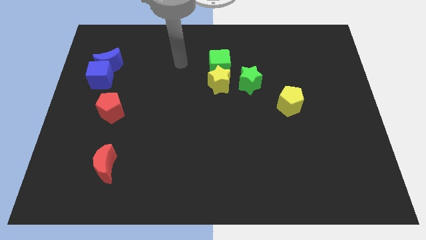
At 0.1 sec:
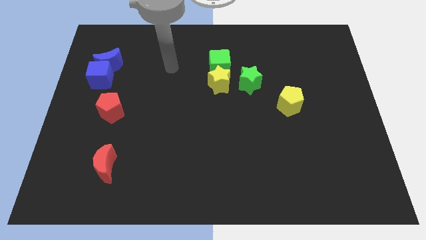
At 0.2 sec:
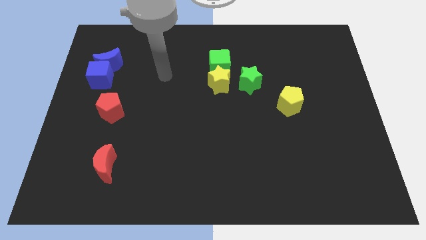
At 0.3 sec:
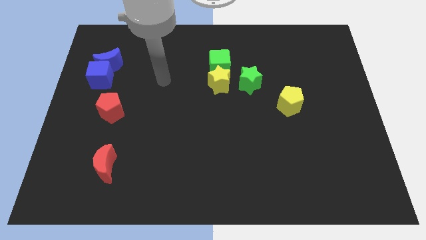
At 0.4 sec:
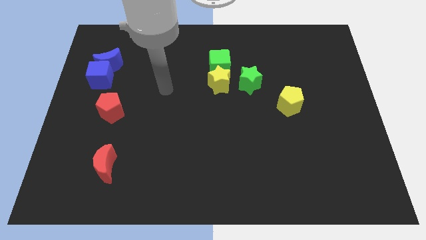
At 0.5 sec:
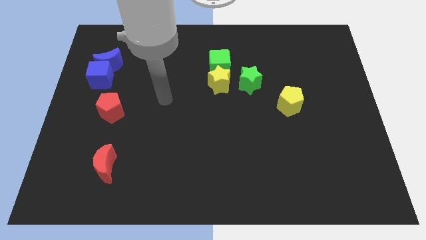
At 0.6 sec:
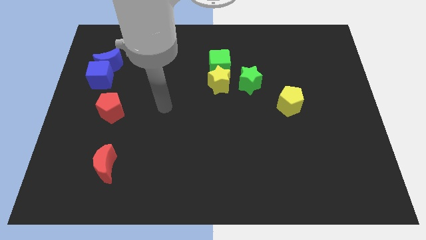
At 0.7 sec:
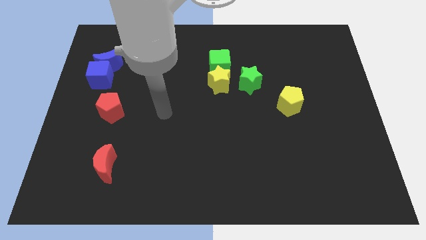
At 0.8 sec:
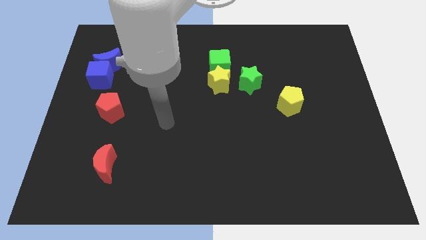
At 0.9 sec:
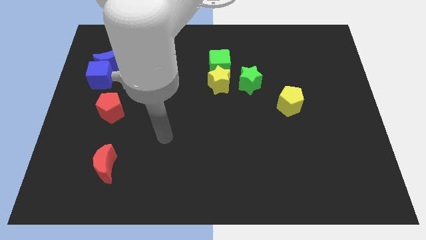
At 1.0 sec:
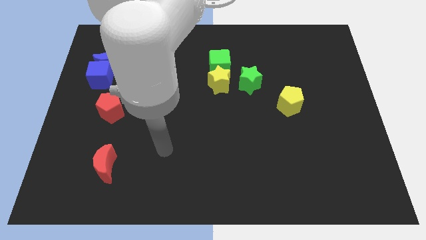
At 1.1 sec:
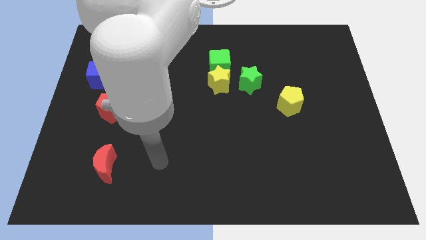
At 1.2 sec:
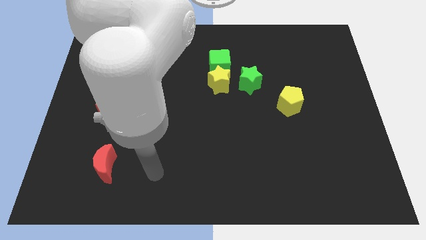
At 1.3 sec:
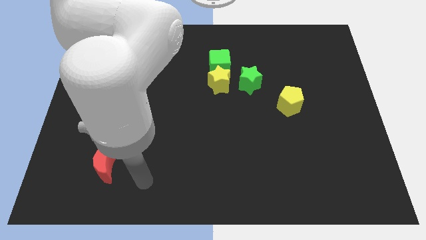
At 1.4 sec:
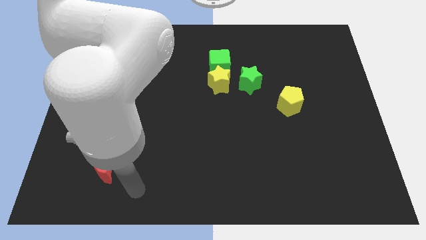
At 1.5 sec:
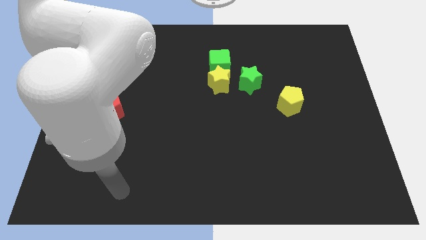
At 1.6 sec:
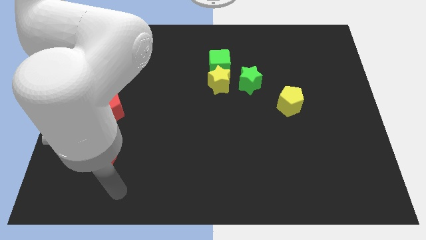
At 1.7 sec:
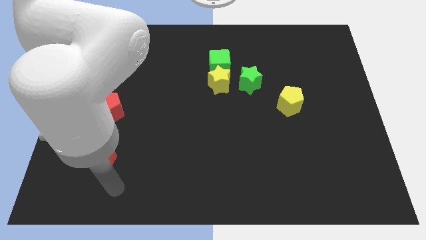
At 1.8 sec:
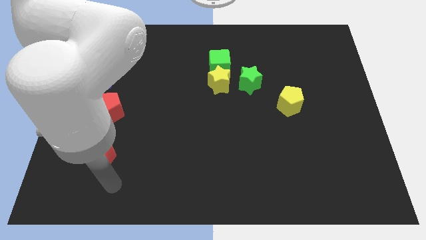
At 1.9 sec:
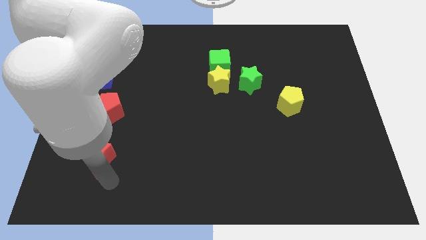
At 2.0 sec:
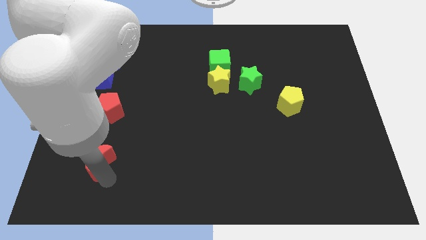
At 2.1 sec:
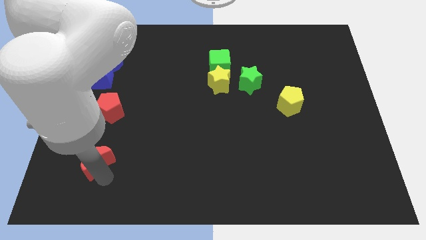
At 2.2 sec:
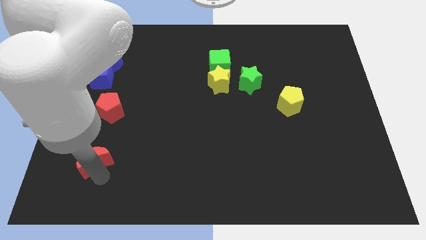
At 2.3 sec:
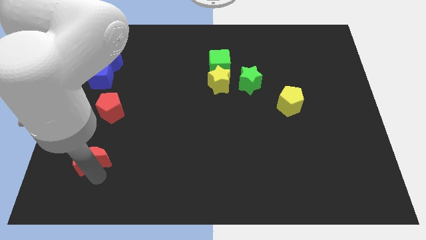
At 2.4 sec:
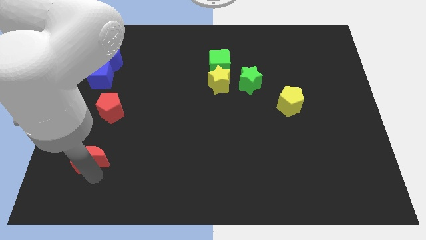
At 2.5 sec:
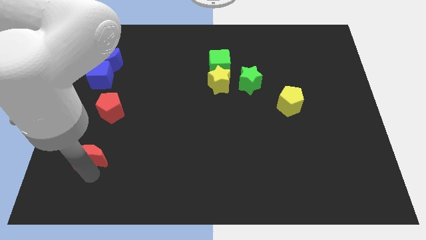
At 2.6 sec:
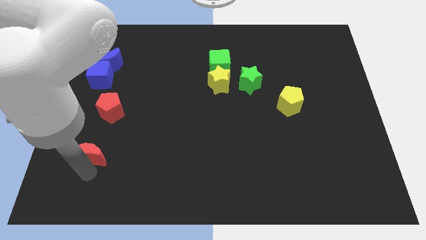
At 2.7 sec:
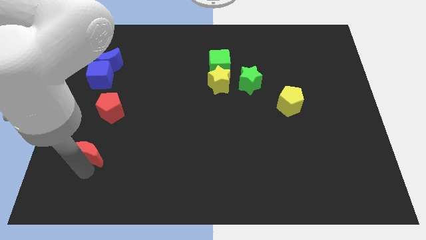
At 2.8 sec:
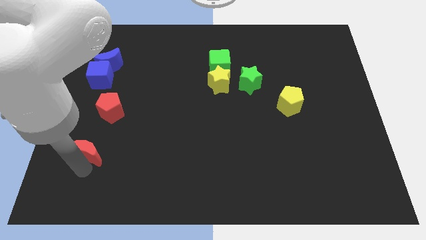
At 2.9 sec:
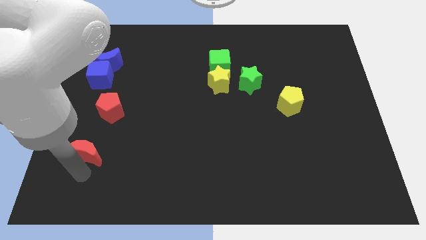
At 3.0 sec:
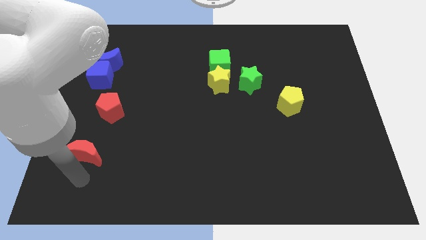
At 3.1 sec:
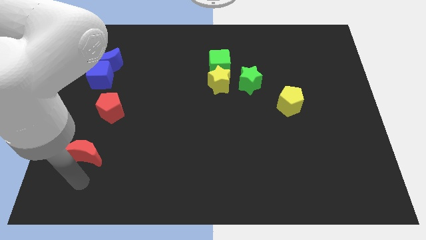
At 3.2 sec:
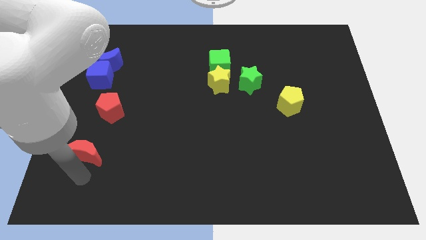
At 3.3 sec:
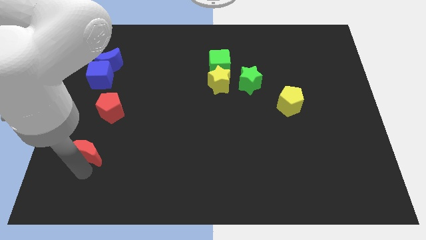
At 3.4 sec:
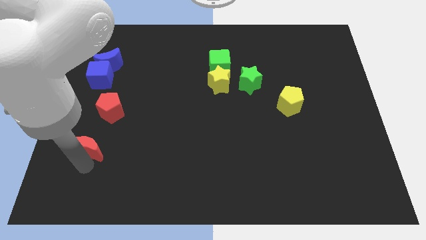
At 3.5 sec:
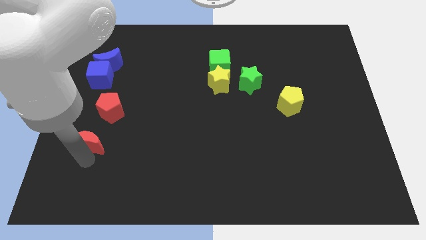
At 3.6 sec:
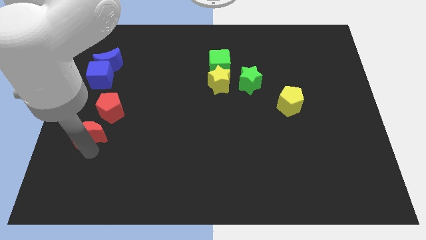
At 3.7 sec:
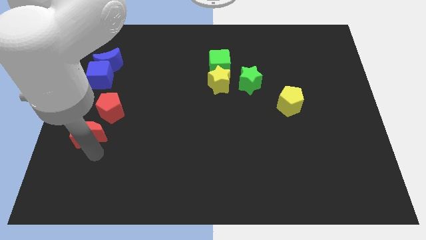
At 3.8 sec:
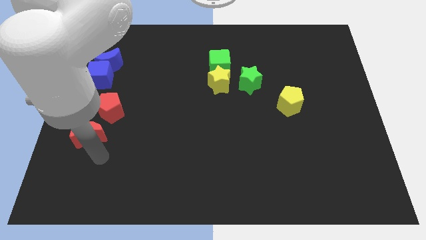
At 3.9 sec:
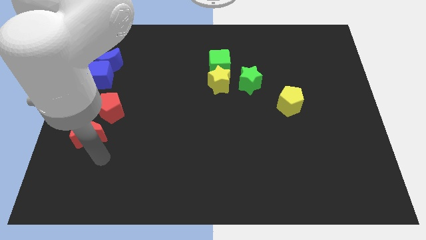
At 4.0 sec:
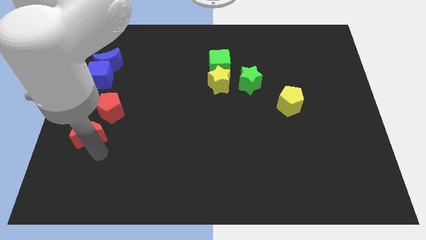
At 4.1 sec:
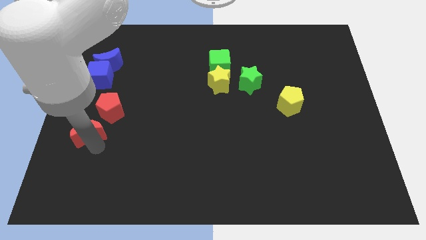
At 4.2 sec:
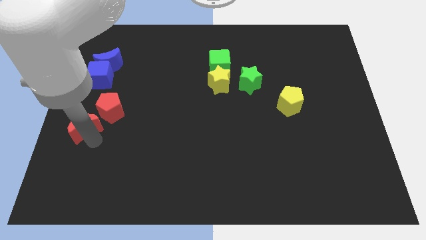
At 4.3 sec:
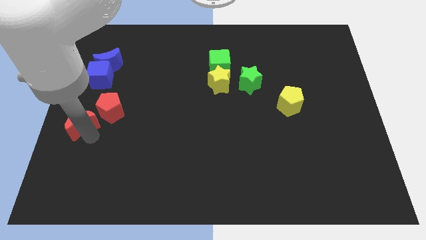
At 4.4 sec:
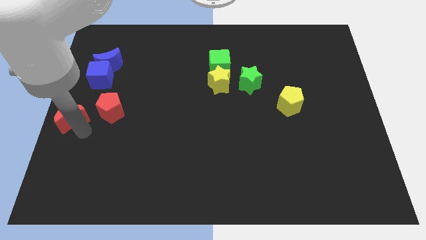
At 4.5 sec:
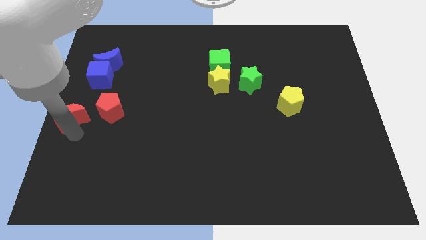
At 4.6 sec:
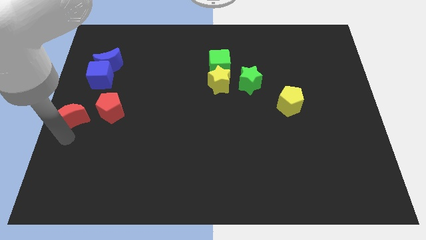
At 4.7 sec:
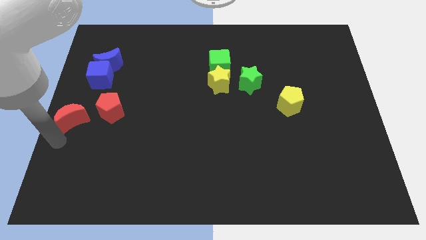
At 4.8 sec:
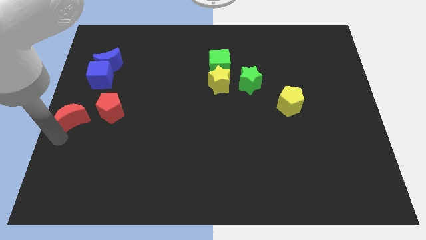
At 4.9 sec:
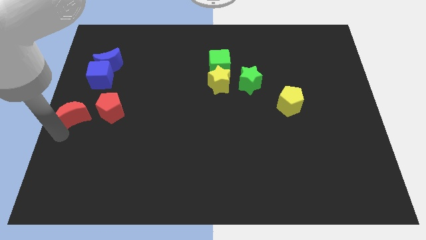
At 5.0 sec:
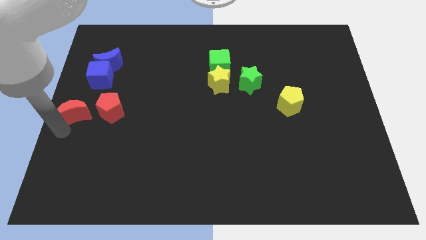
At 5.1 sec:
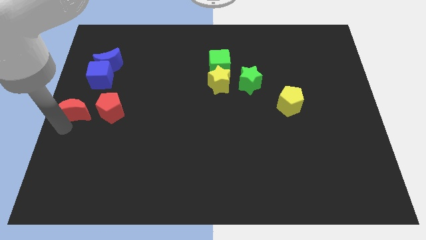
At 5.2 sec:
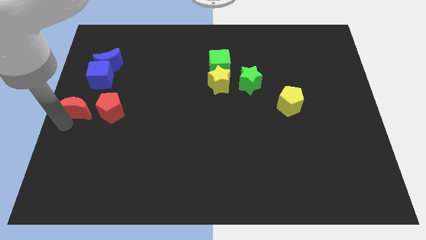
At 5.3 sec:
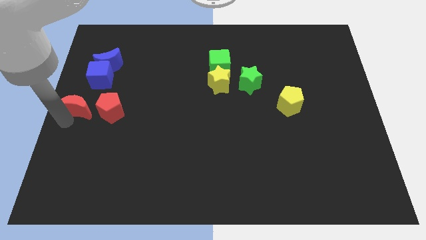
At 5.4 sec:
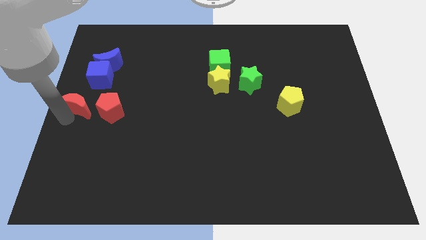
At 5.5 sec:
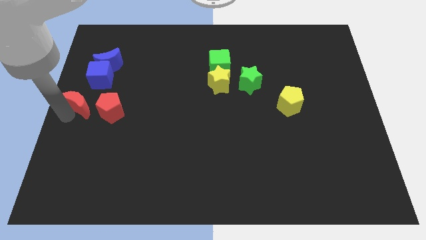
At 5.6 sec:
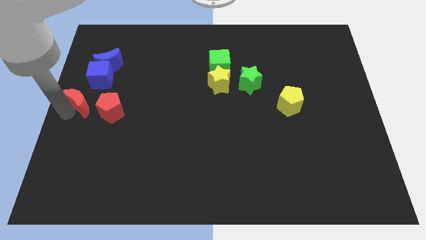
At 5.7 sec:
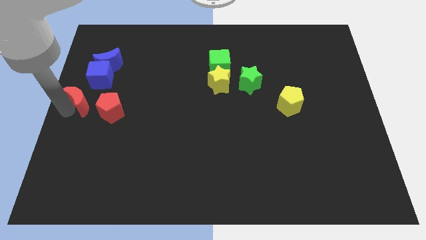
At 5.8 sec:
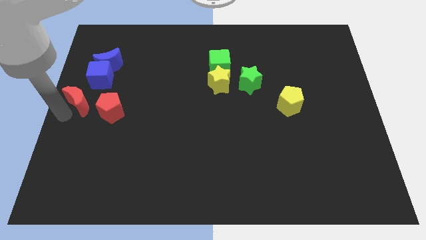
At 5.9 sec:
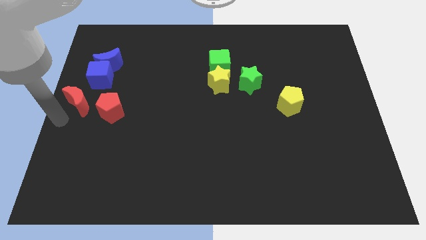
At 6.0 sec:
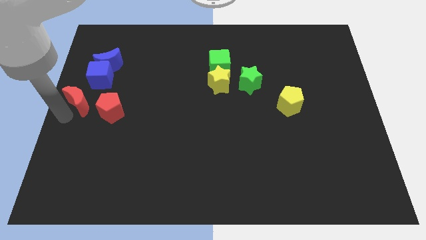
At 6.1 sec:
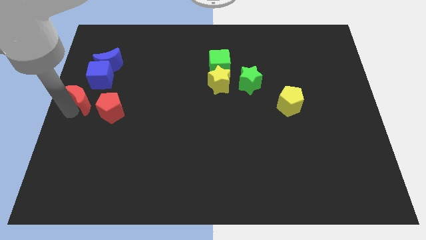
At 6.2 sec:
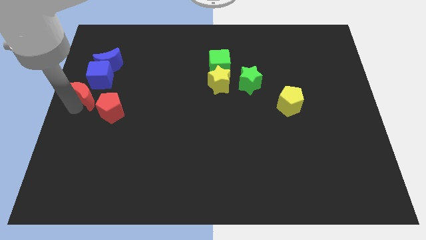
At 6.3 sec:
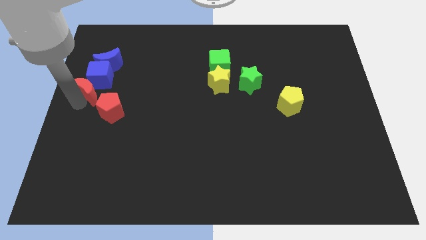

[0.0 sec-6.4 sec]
put the red moon towards the blue cube
